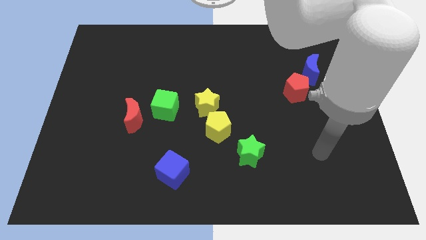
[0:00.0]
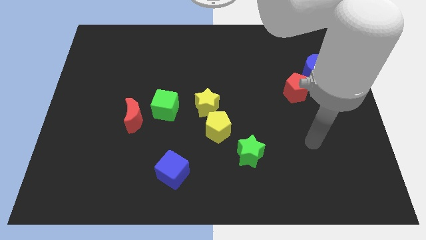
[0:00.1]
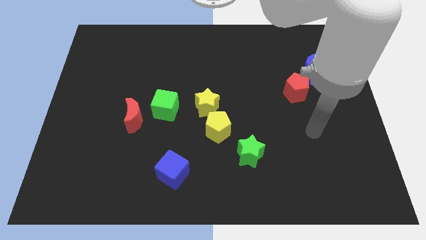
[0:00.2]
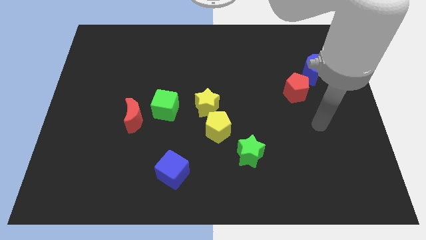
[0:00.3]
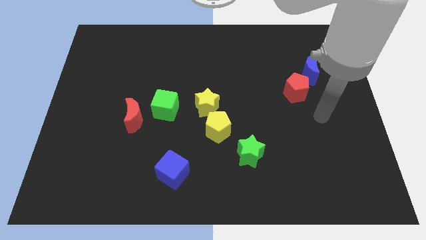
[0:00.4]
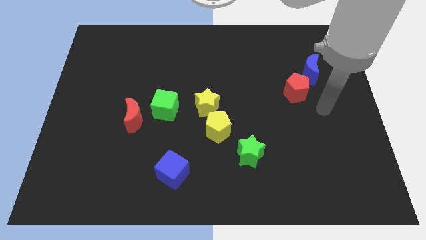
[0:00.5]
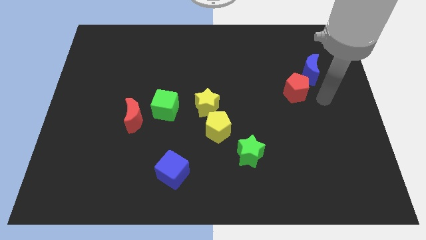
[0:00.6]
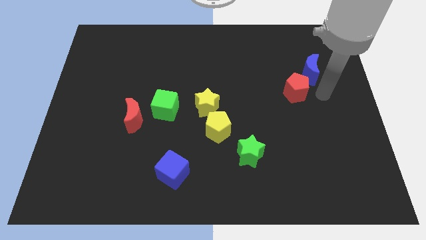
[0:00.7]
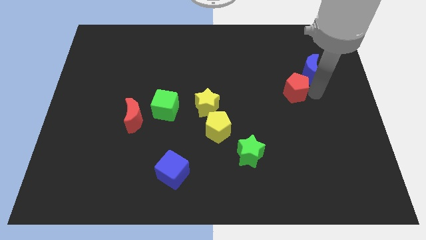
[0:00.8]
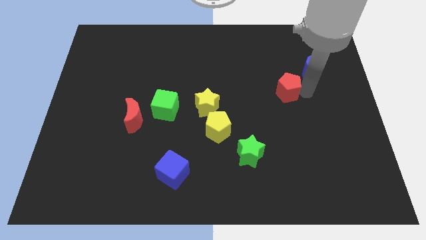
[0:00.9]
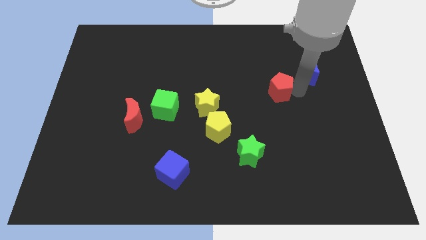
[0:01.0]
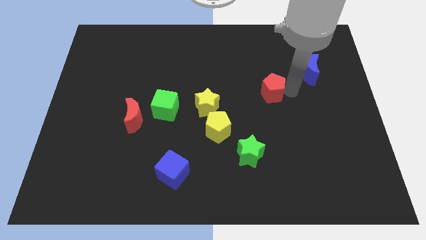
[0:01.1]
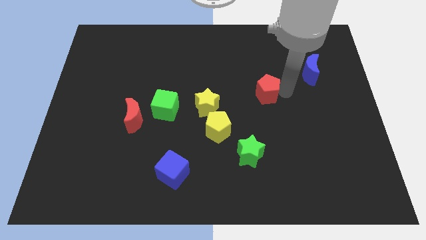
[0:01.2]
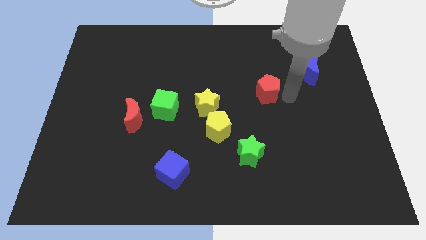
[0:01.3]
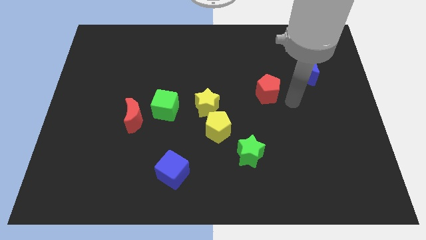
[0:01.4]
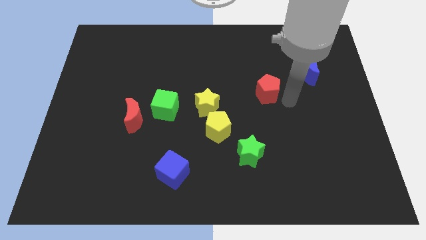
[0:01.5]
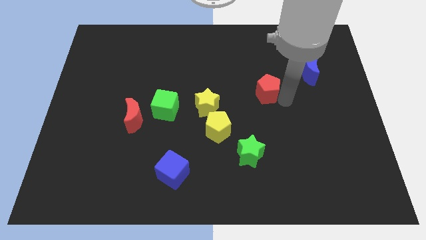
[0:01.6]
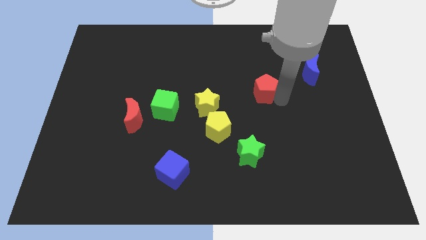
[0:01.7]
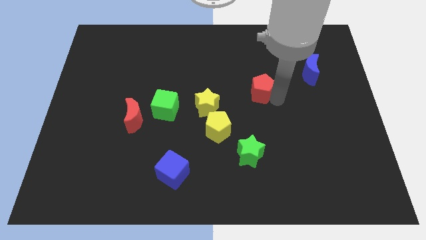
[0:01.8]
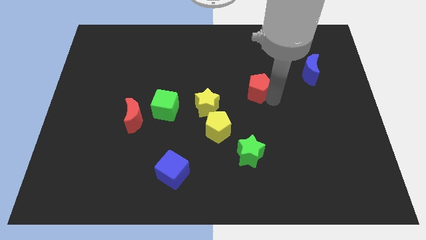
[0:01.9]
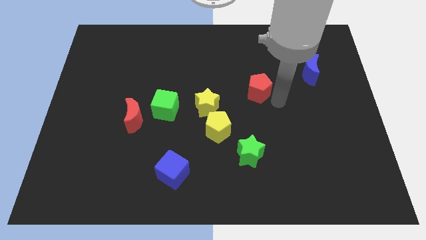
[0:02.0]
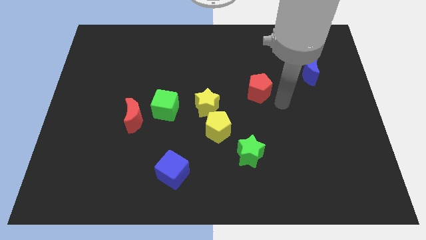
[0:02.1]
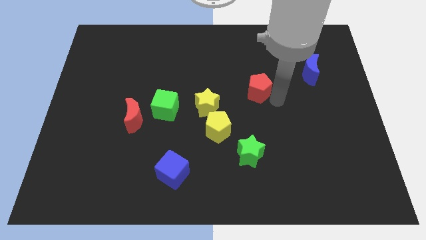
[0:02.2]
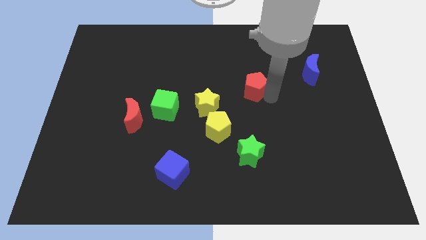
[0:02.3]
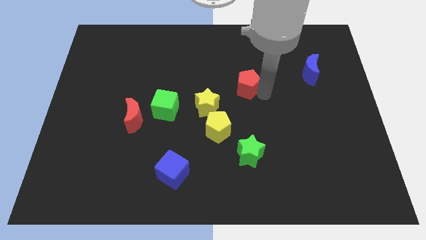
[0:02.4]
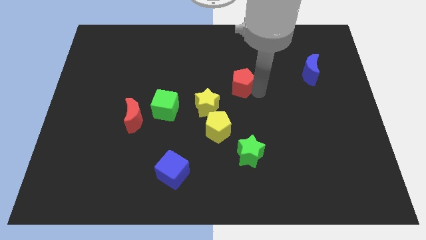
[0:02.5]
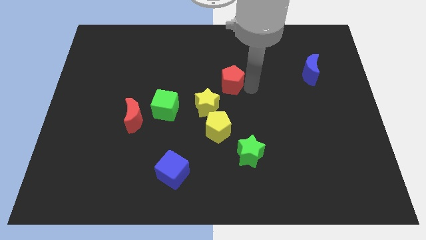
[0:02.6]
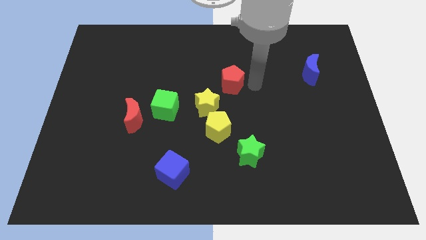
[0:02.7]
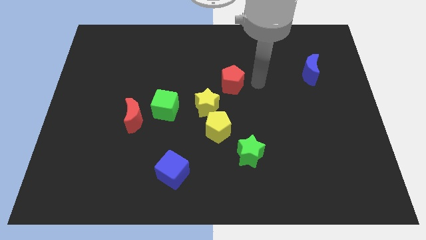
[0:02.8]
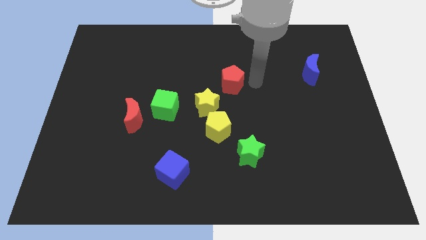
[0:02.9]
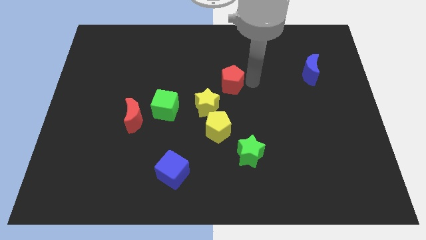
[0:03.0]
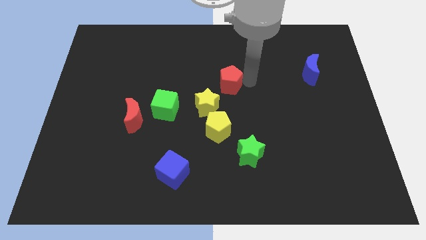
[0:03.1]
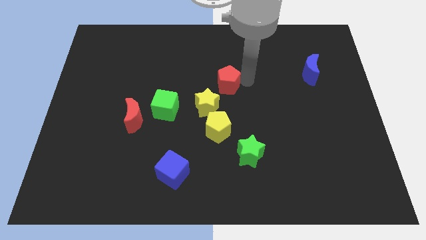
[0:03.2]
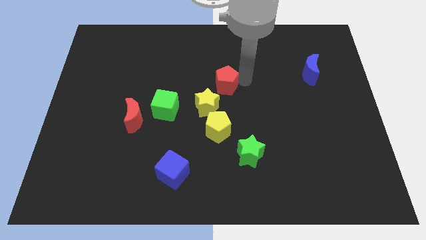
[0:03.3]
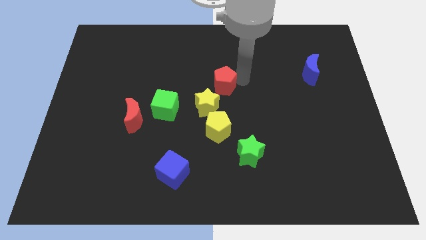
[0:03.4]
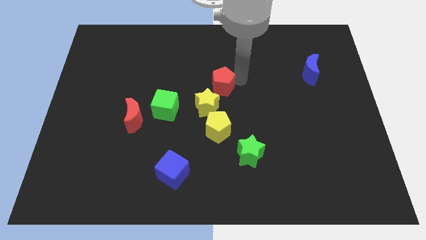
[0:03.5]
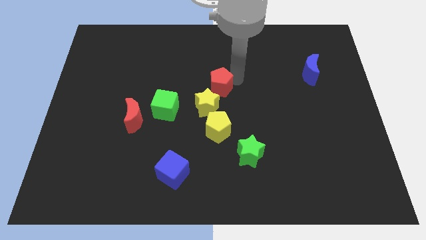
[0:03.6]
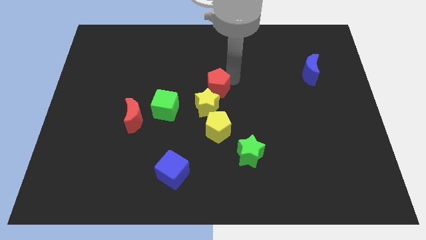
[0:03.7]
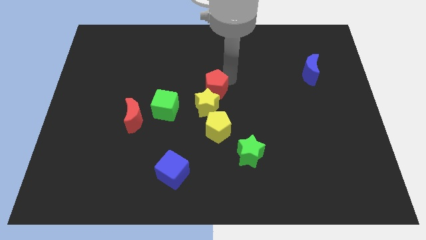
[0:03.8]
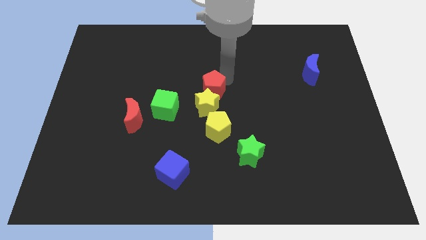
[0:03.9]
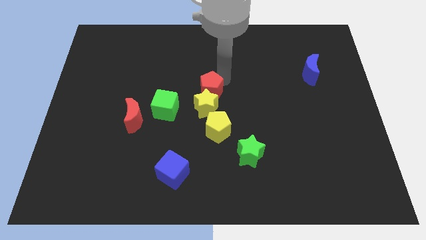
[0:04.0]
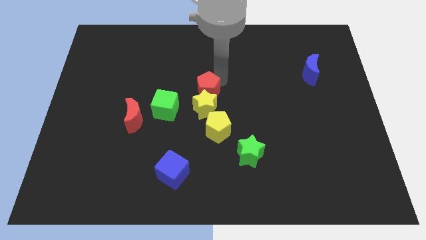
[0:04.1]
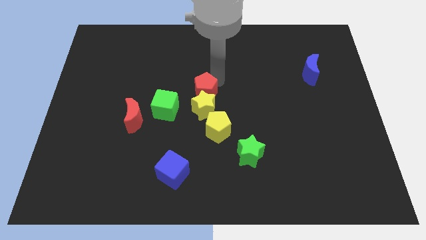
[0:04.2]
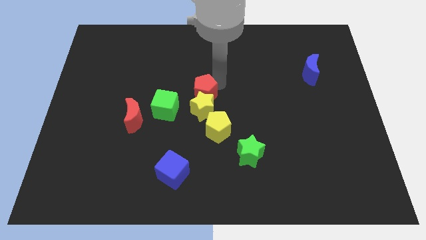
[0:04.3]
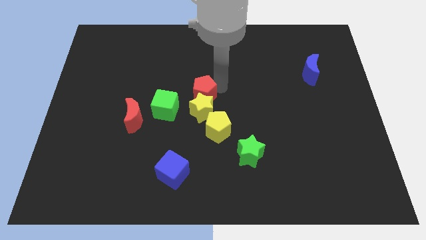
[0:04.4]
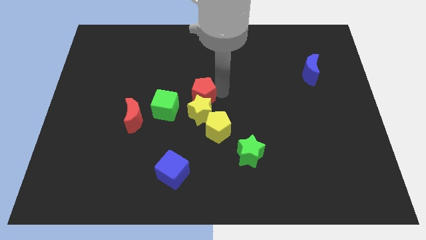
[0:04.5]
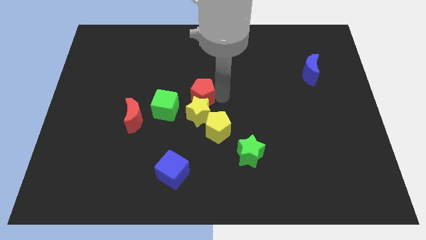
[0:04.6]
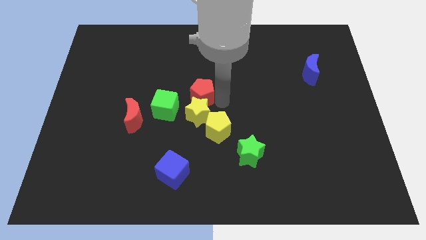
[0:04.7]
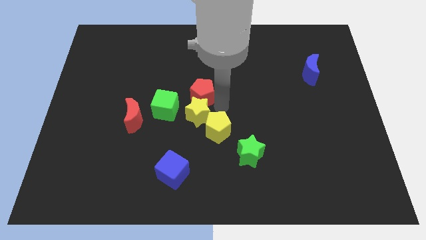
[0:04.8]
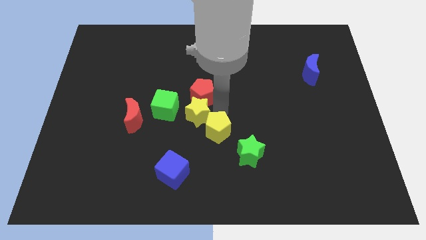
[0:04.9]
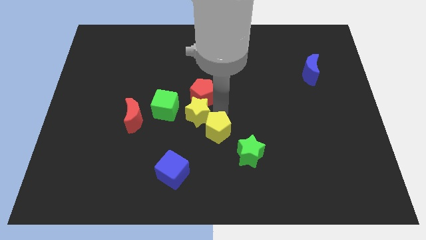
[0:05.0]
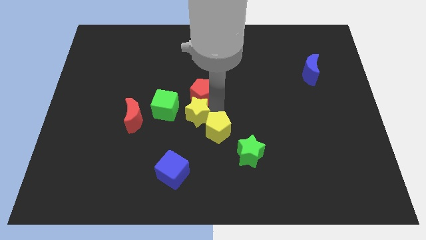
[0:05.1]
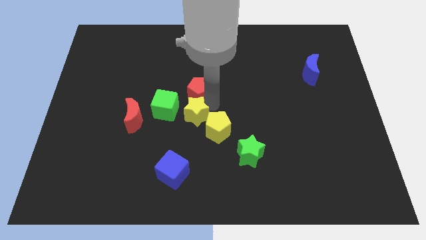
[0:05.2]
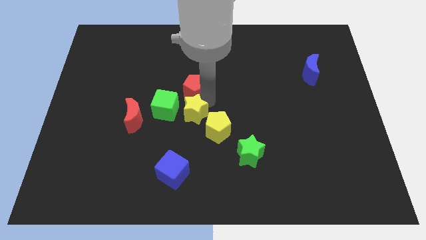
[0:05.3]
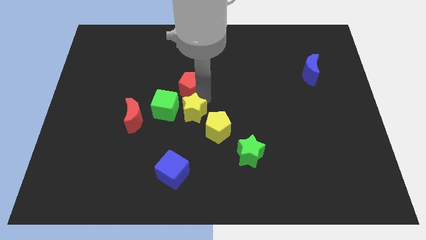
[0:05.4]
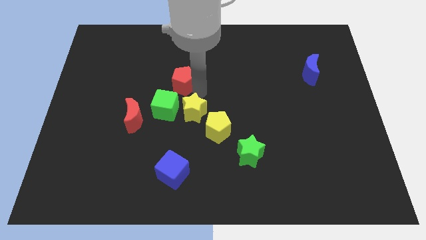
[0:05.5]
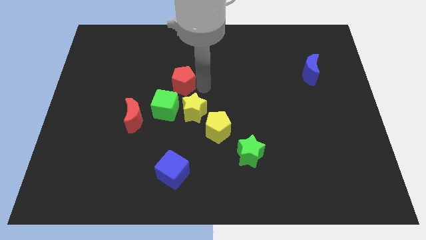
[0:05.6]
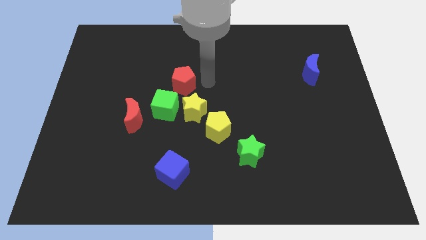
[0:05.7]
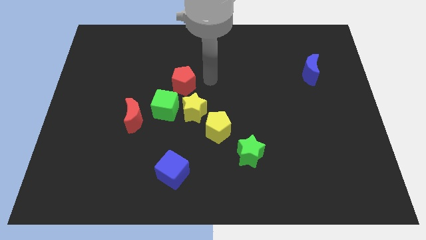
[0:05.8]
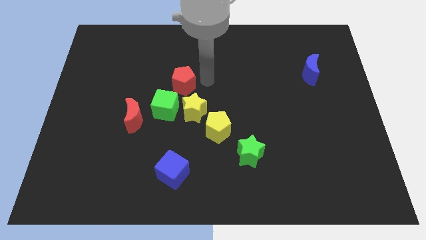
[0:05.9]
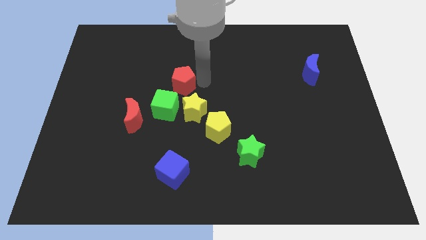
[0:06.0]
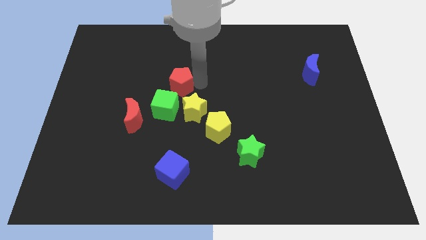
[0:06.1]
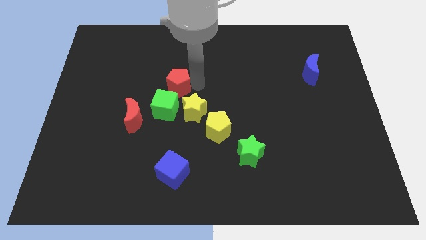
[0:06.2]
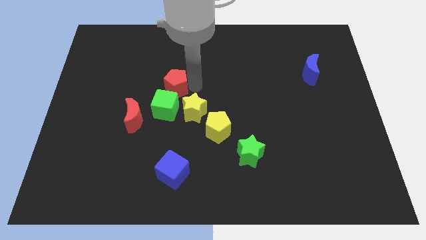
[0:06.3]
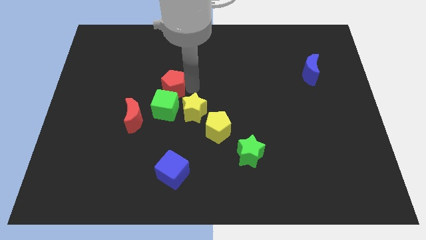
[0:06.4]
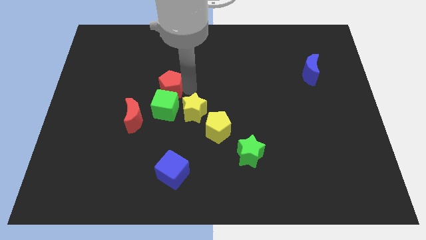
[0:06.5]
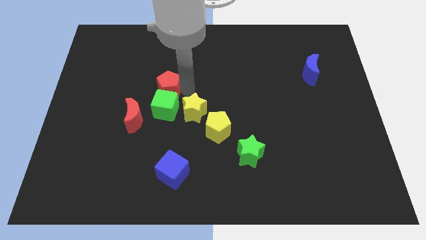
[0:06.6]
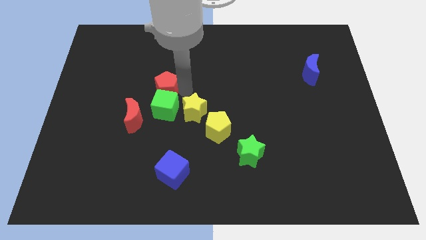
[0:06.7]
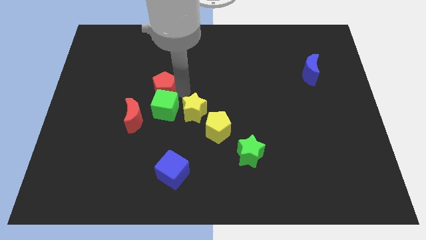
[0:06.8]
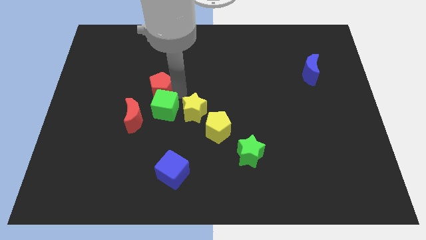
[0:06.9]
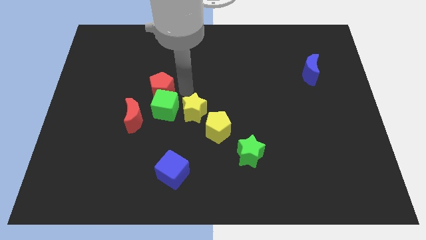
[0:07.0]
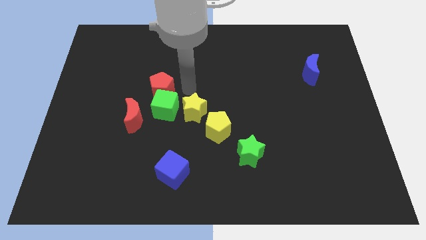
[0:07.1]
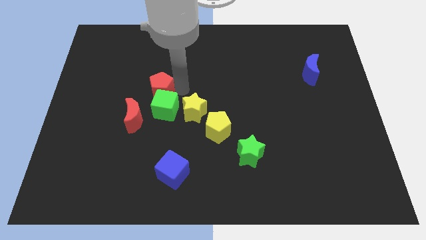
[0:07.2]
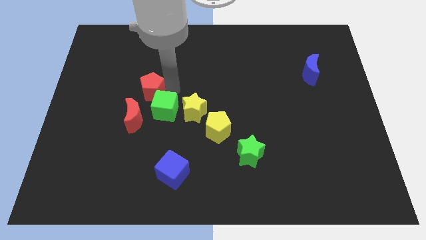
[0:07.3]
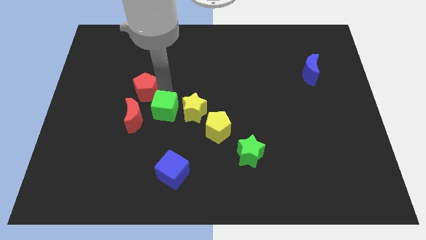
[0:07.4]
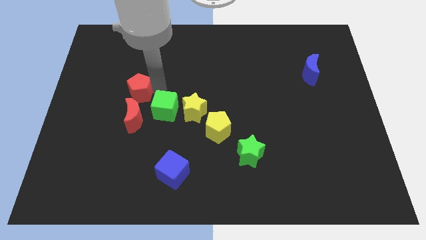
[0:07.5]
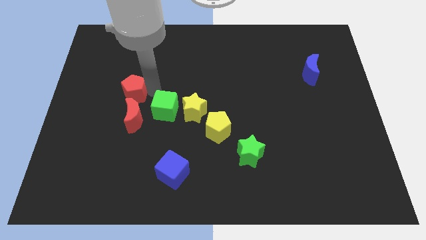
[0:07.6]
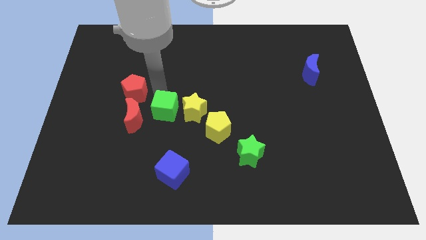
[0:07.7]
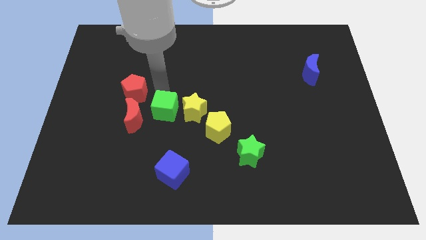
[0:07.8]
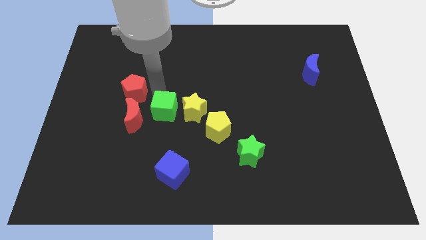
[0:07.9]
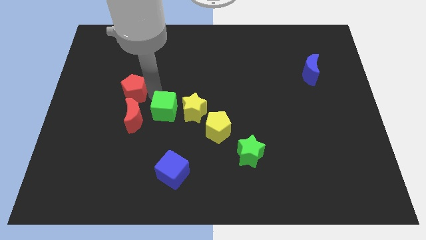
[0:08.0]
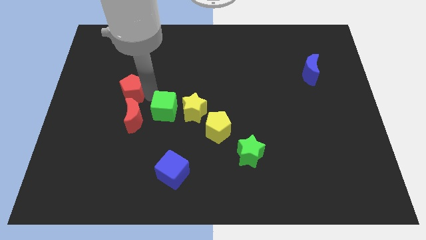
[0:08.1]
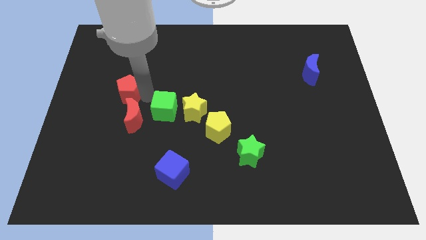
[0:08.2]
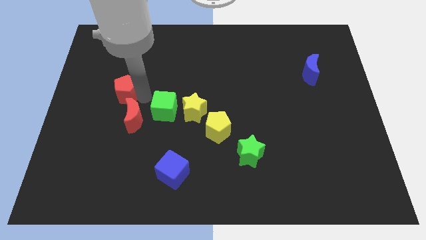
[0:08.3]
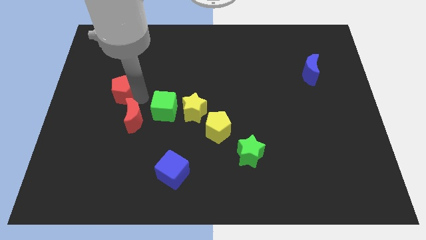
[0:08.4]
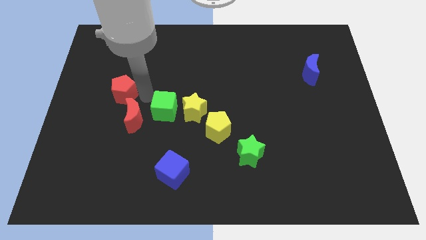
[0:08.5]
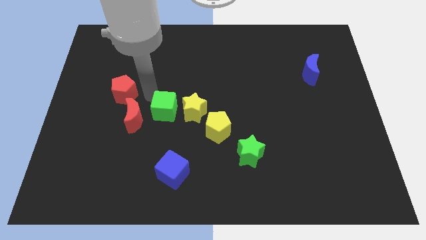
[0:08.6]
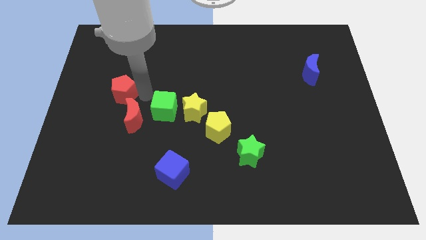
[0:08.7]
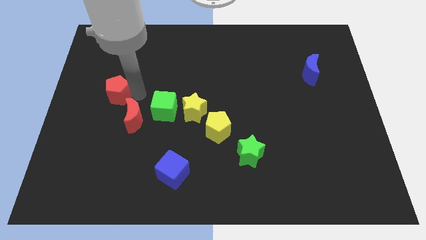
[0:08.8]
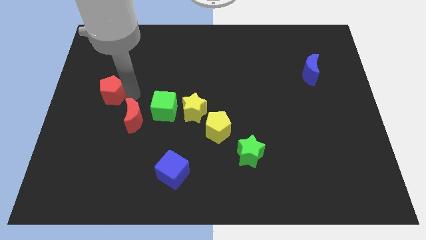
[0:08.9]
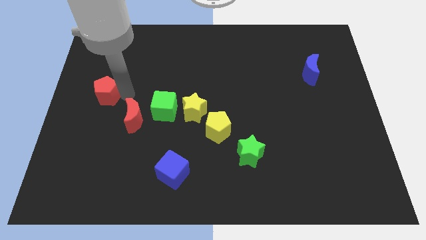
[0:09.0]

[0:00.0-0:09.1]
move the red pentagon to the left side of the board
